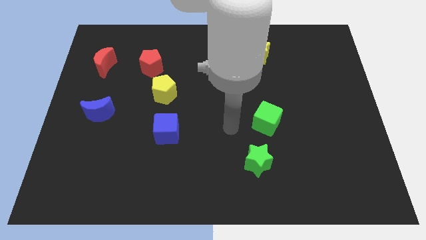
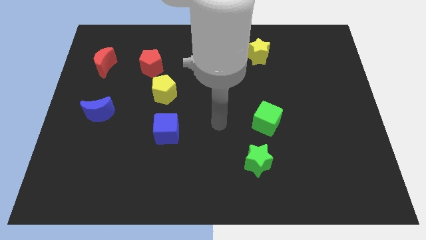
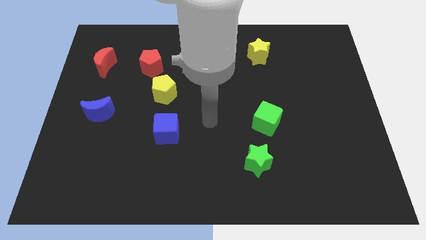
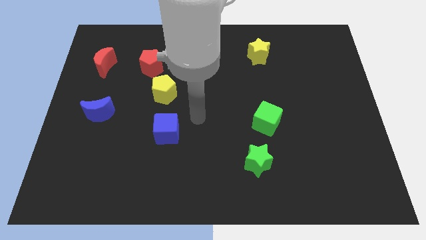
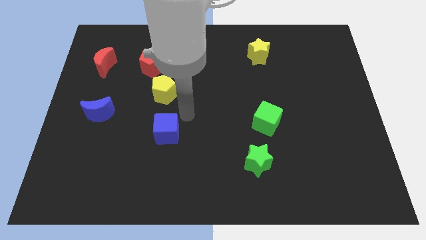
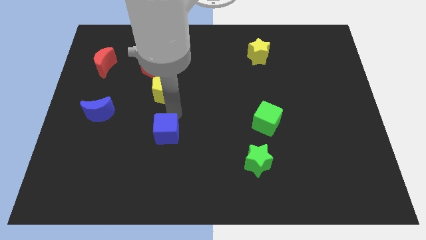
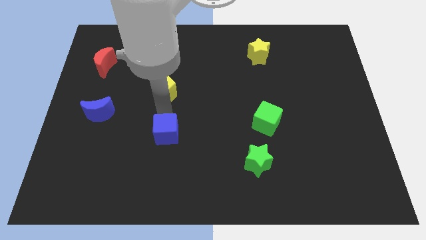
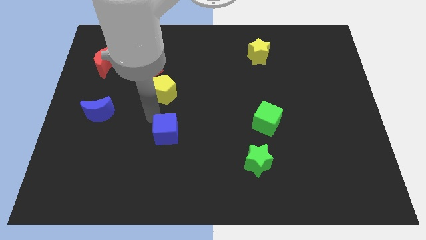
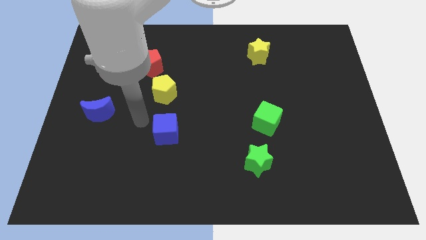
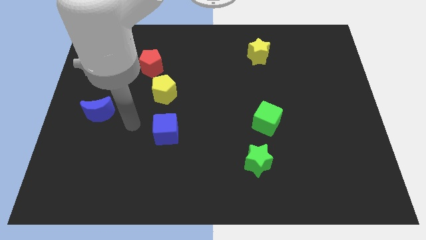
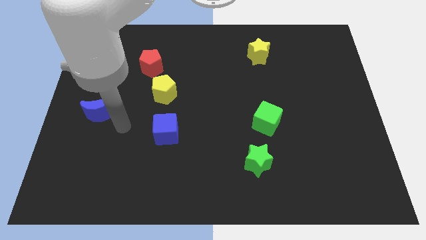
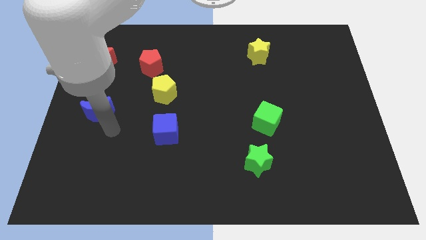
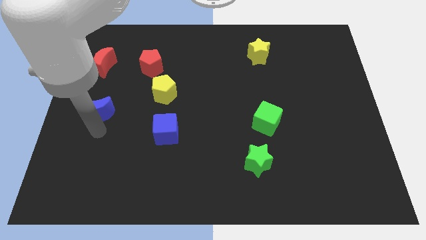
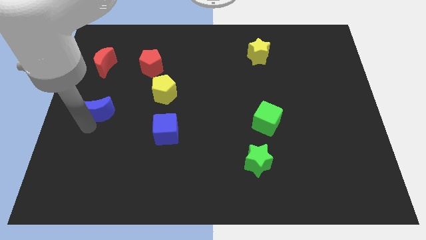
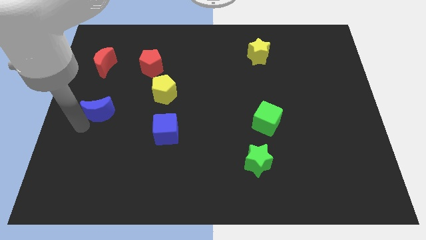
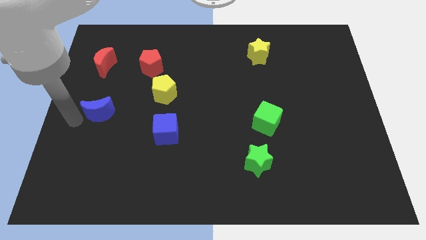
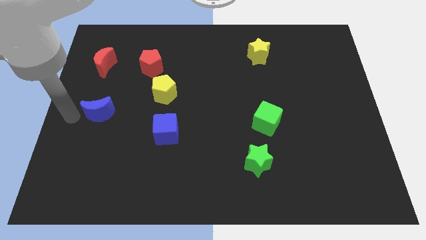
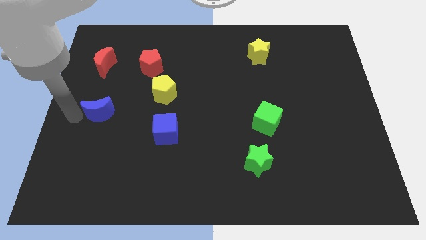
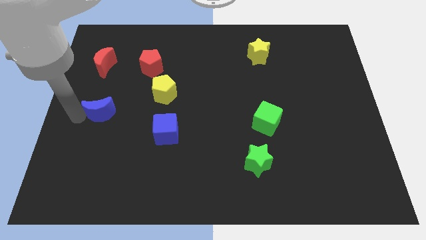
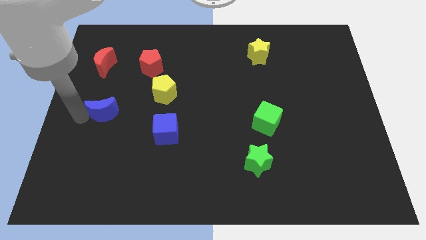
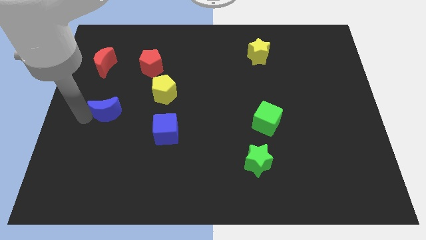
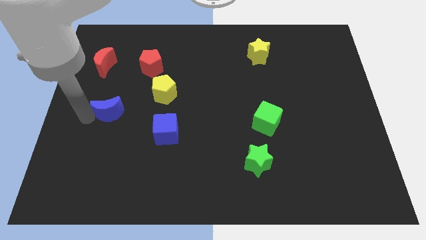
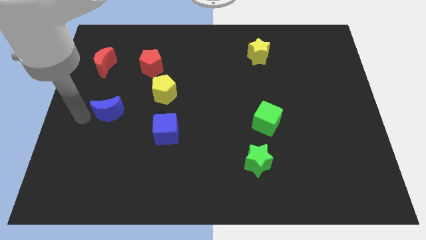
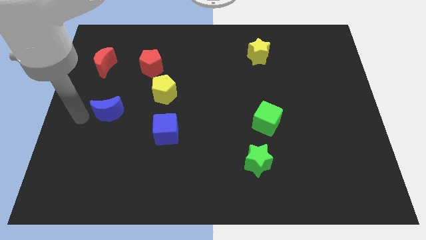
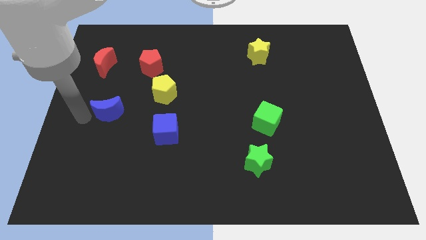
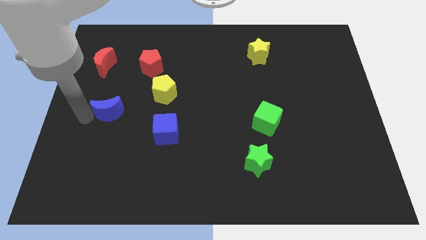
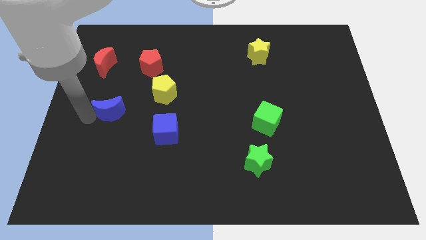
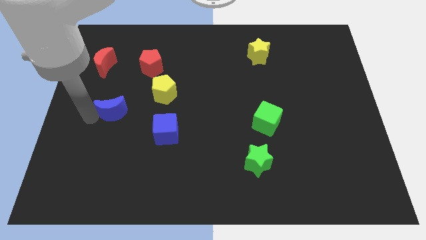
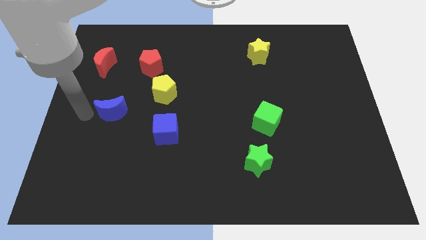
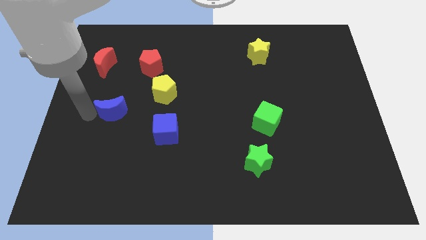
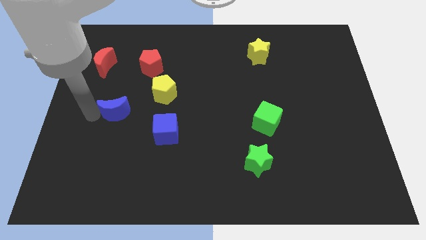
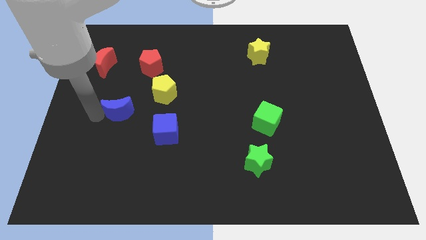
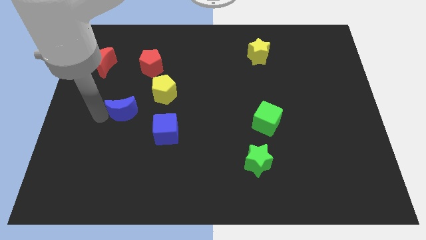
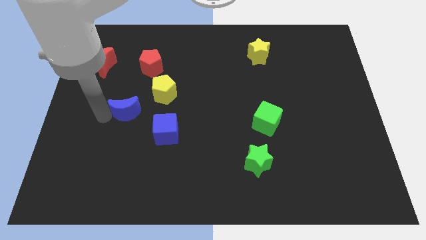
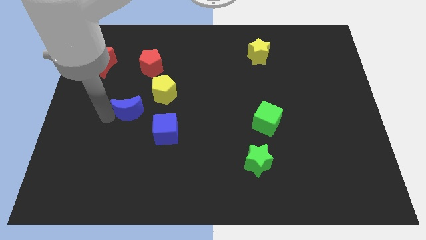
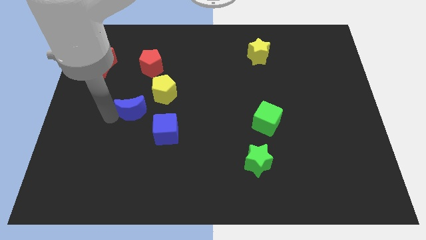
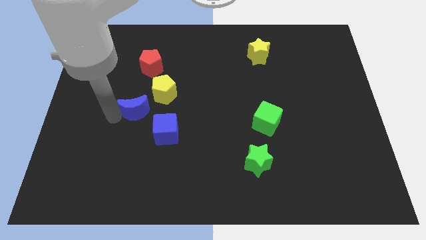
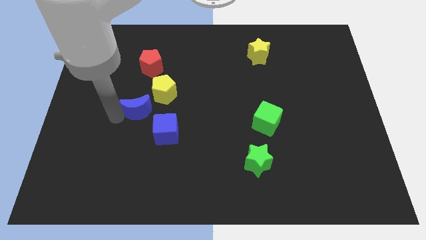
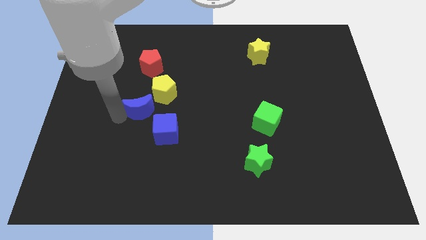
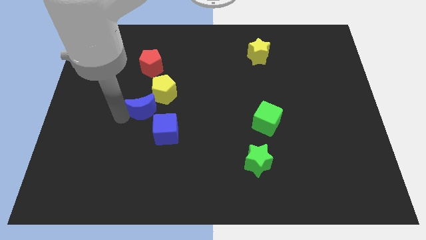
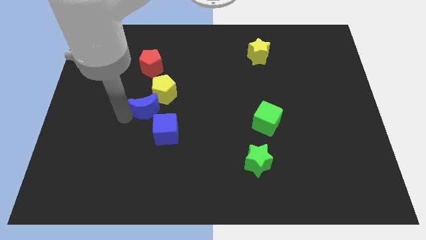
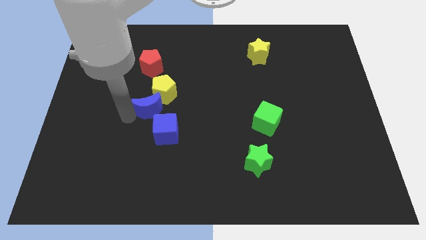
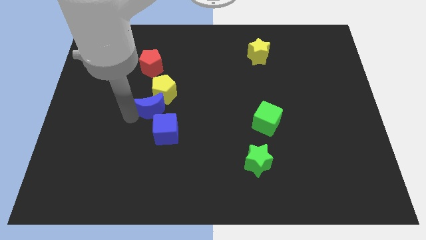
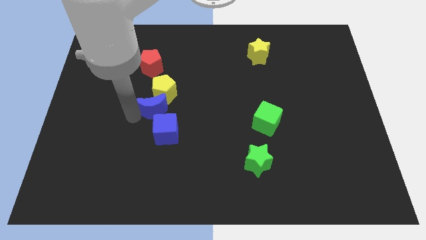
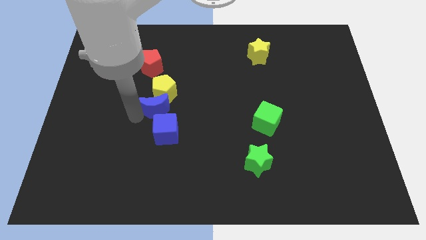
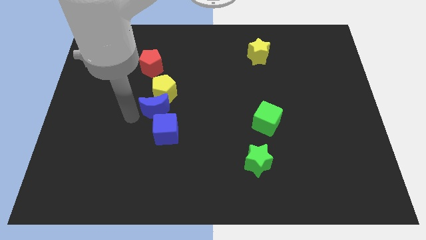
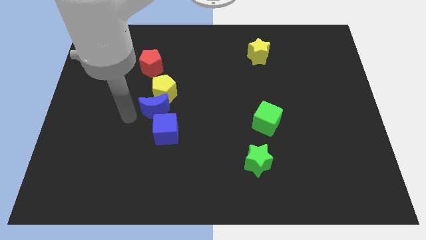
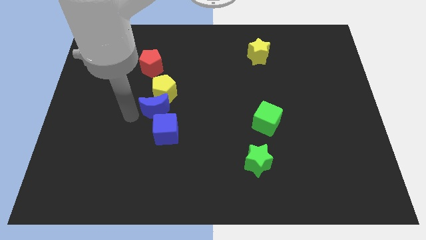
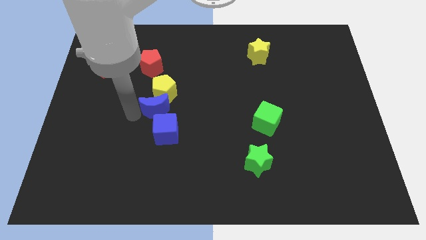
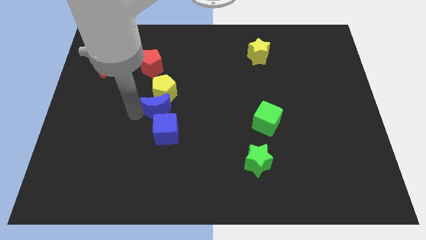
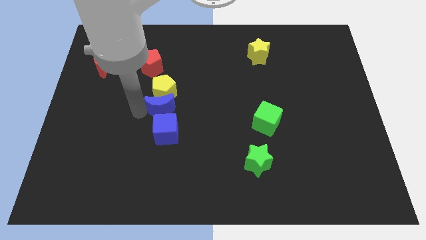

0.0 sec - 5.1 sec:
slide the blue moon to the center of the board
